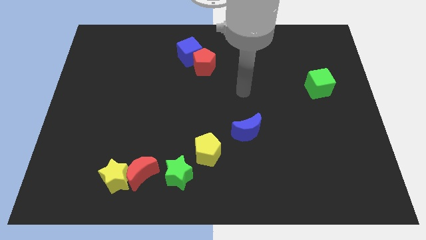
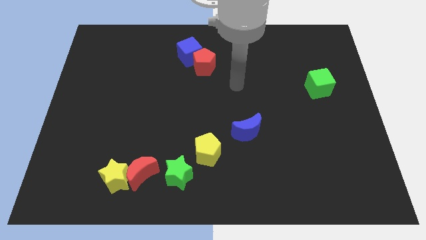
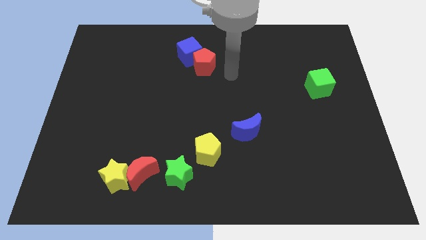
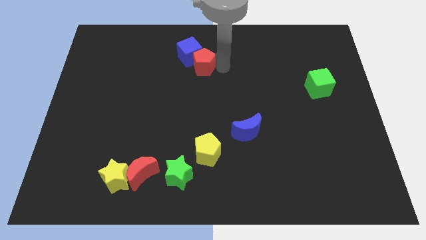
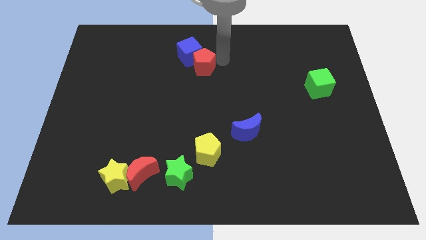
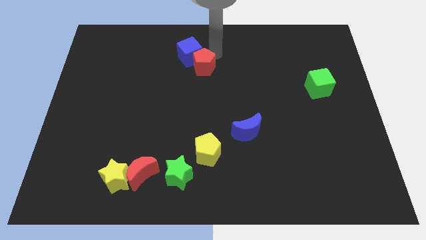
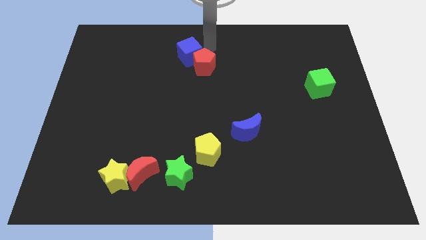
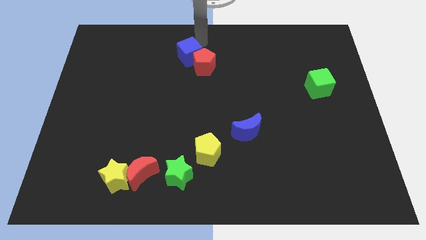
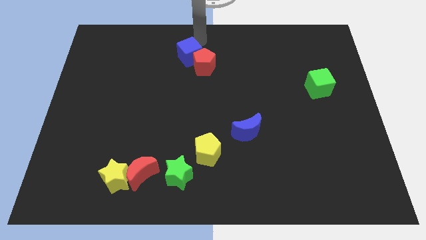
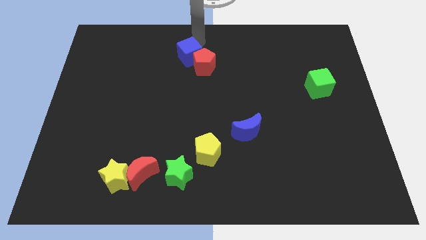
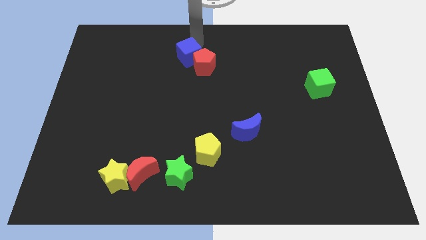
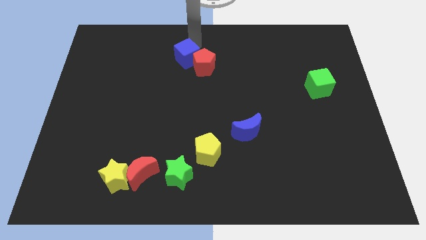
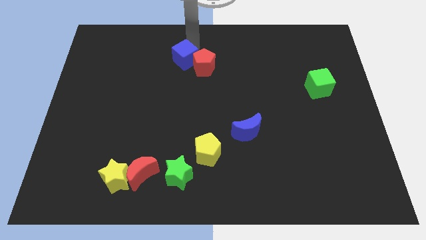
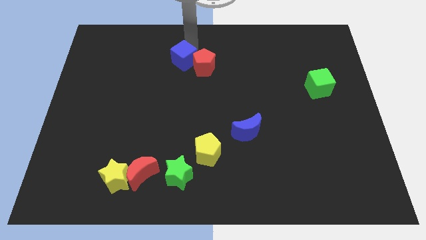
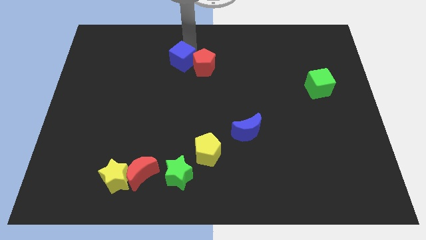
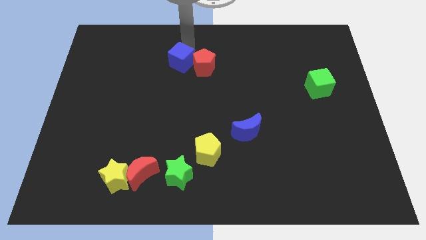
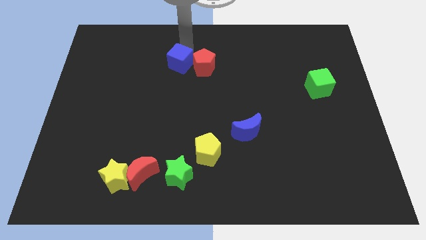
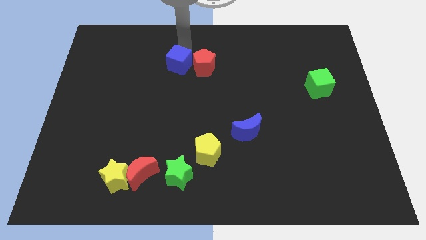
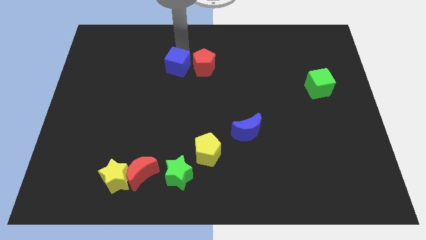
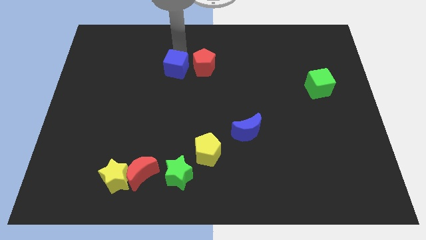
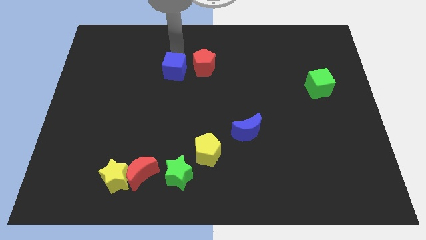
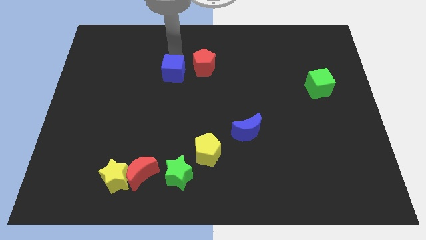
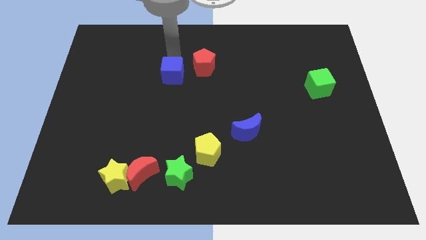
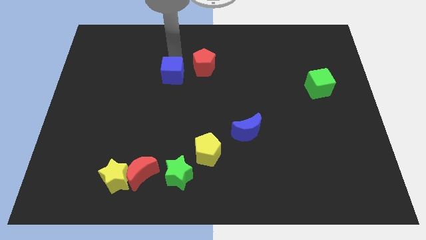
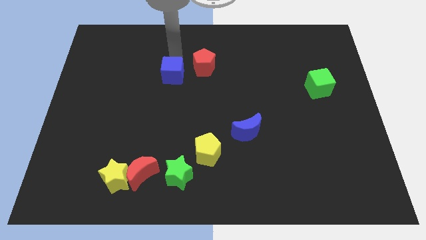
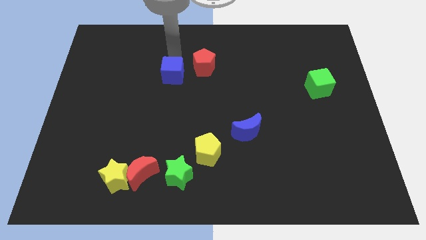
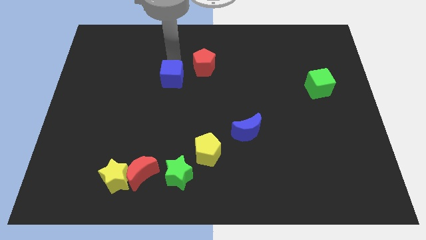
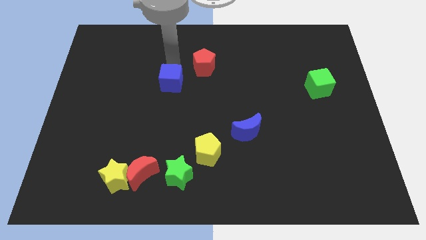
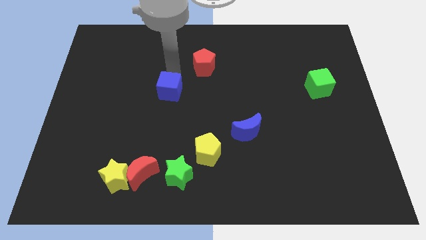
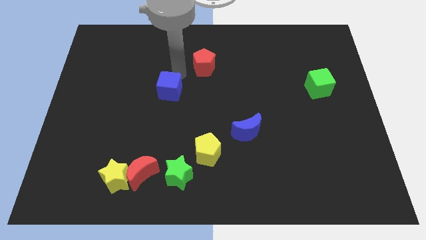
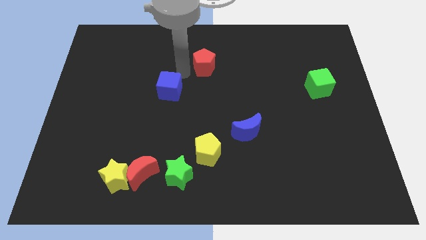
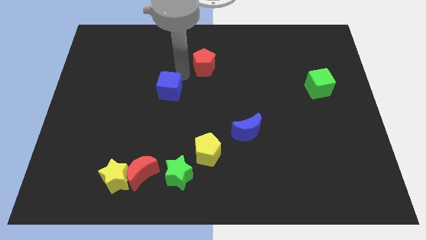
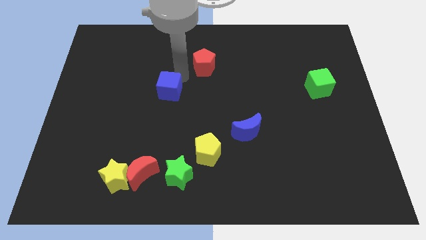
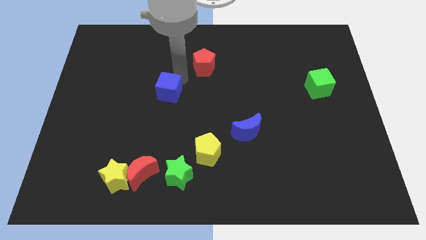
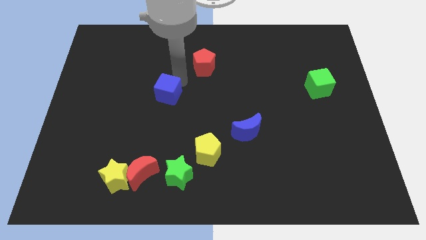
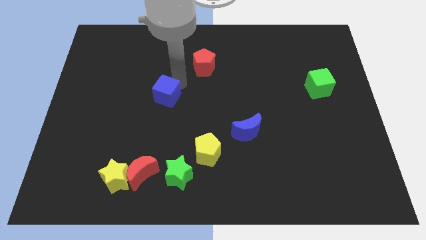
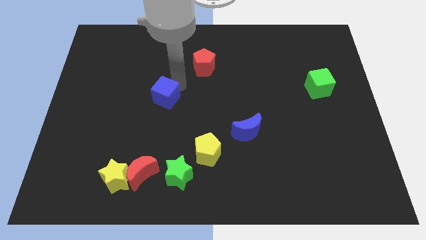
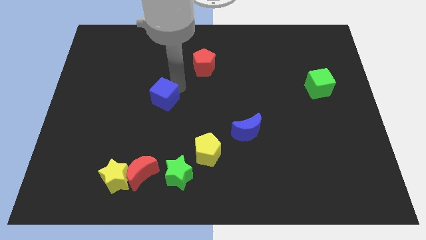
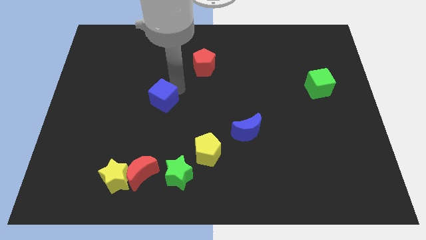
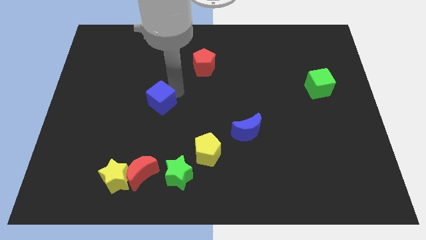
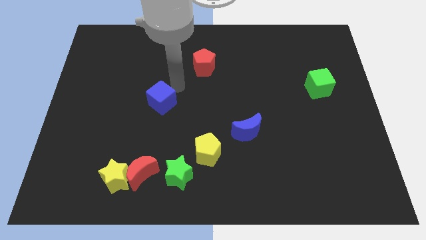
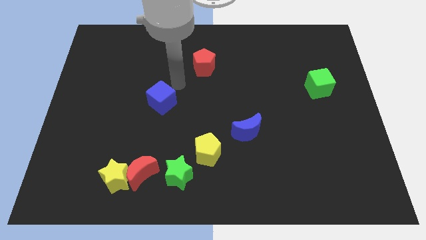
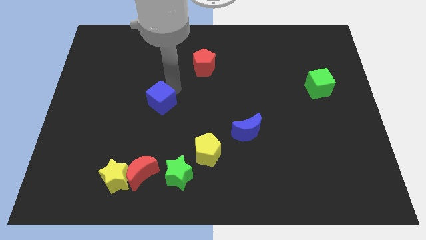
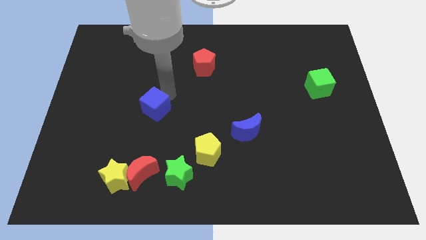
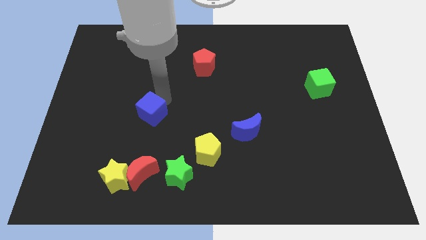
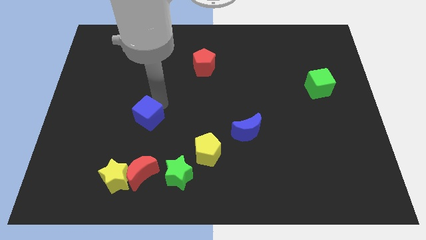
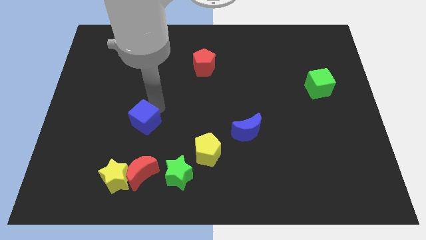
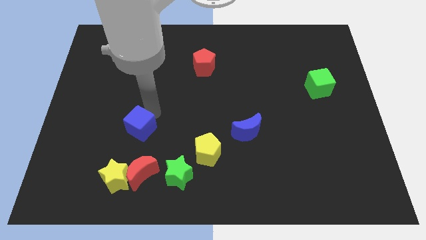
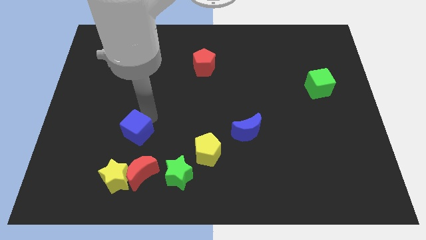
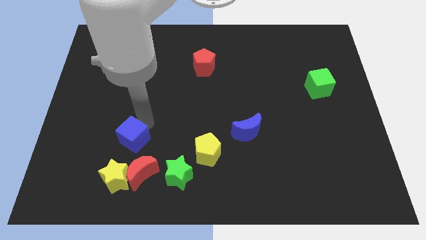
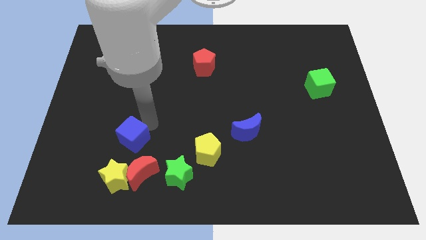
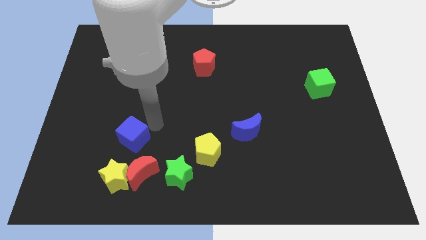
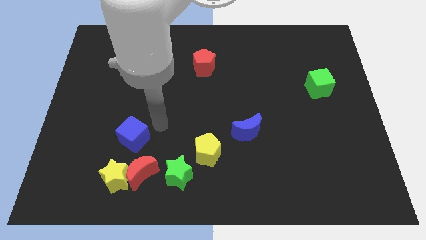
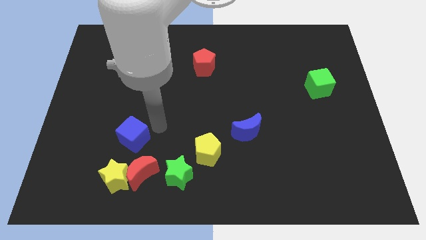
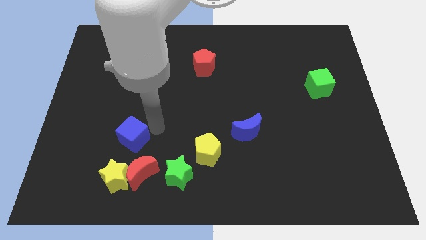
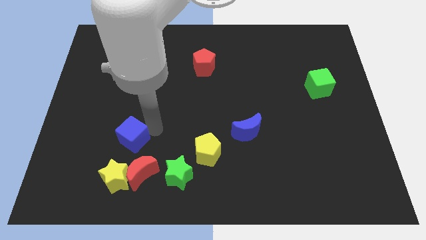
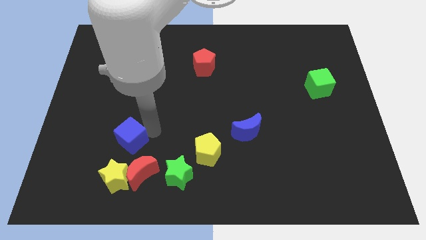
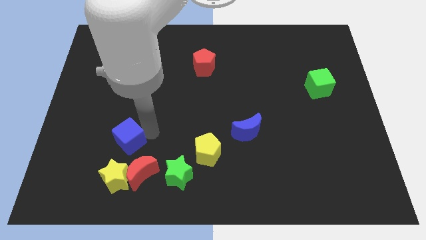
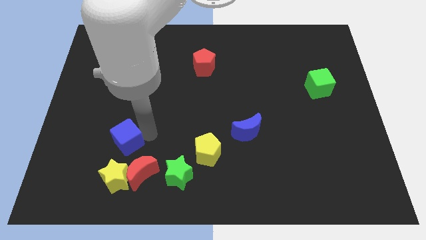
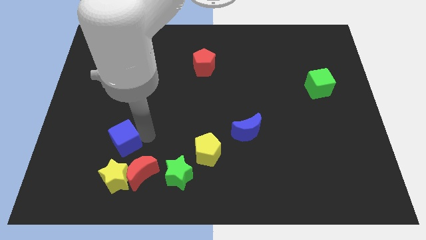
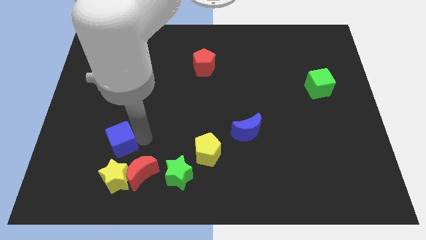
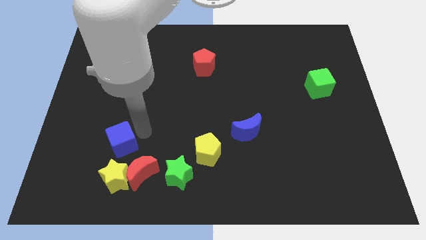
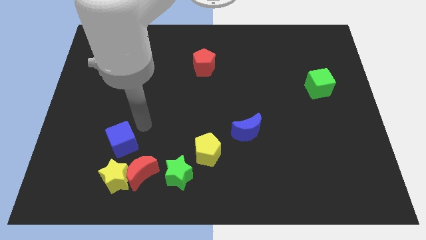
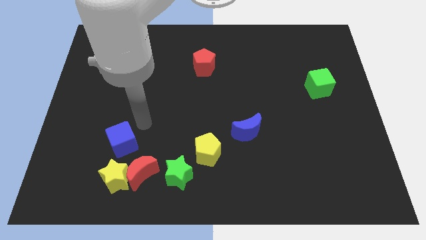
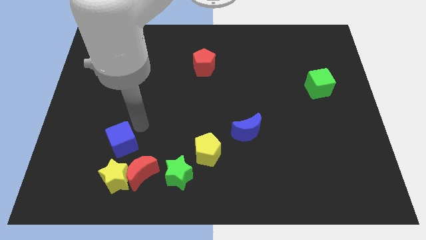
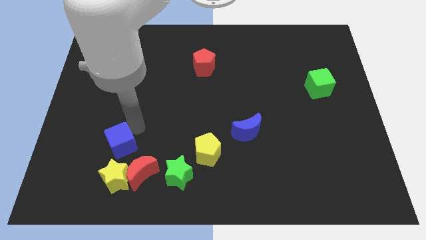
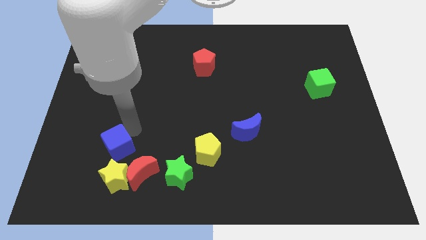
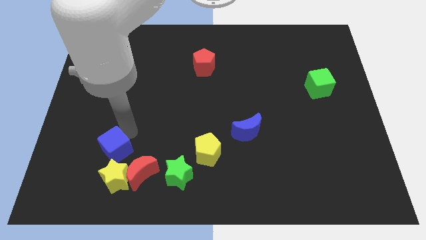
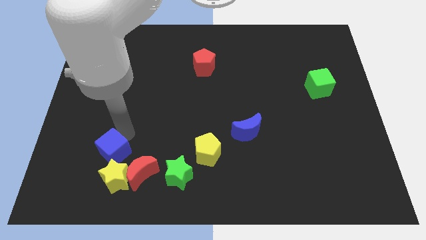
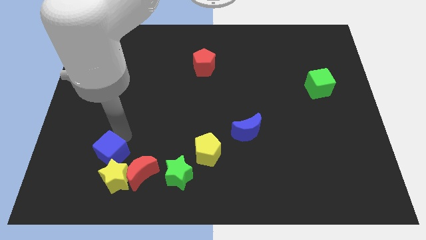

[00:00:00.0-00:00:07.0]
move the blue cube just left of the red moon
